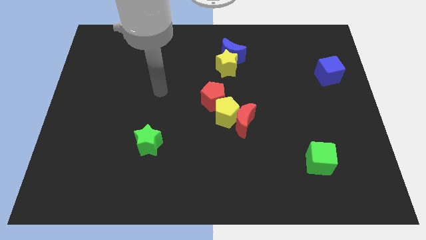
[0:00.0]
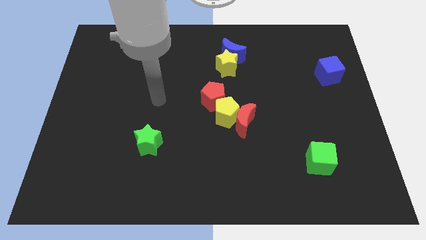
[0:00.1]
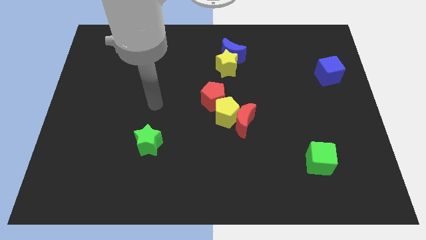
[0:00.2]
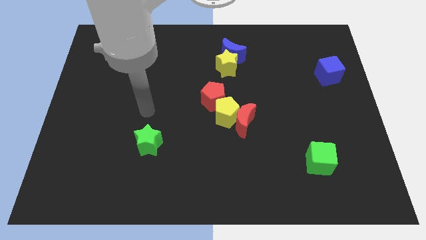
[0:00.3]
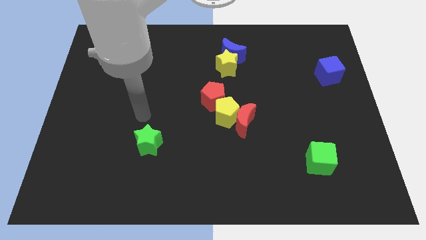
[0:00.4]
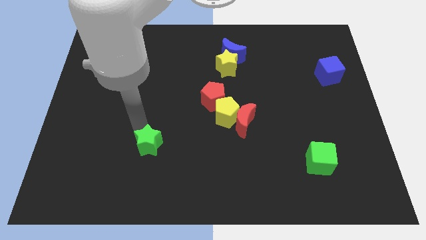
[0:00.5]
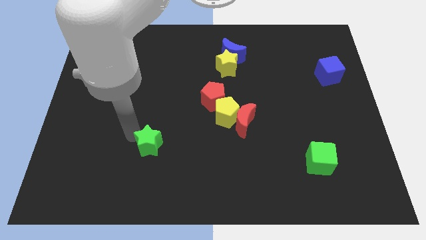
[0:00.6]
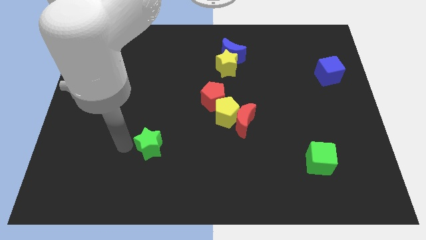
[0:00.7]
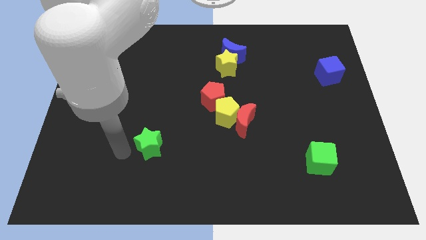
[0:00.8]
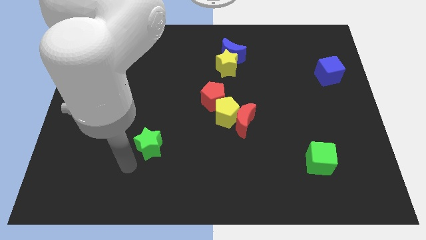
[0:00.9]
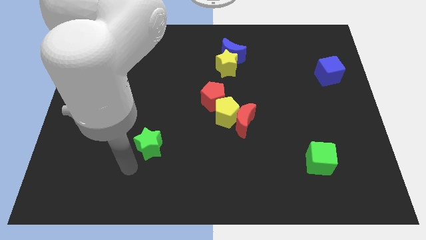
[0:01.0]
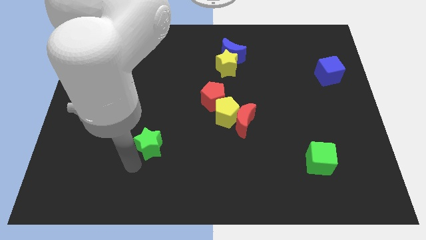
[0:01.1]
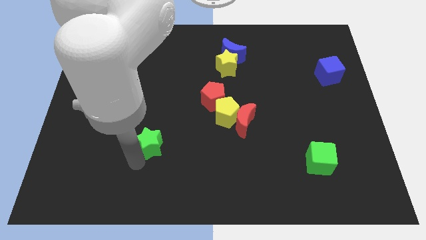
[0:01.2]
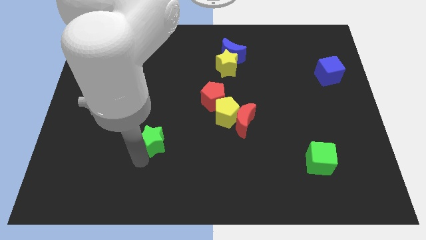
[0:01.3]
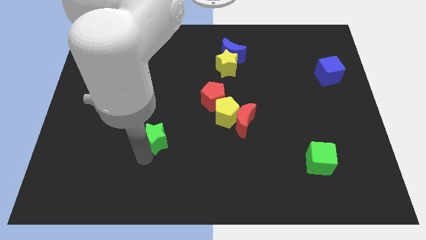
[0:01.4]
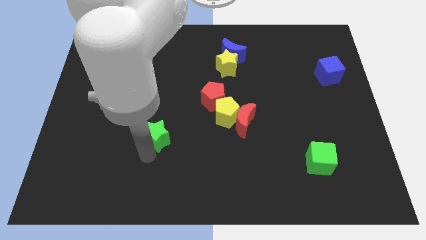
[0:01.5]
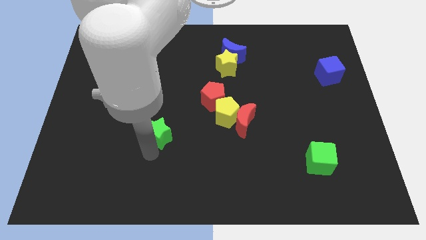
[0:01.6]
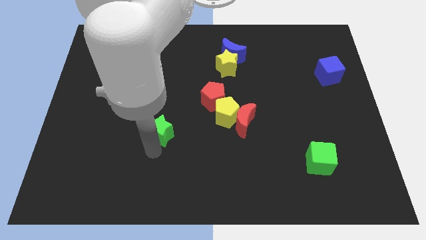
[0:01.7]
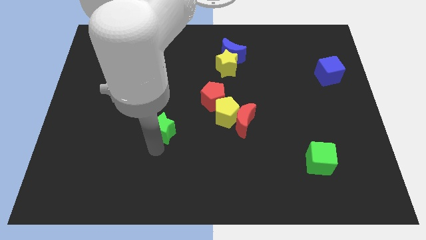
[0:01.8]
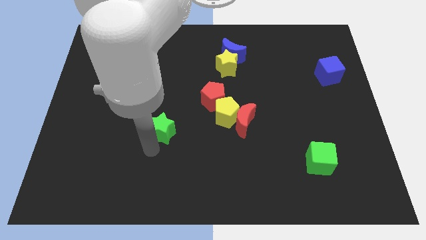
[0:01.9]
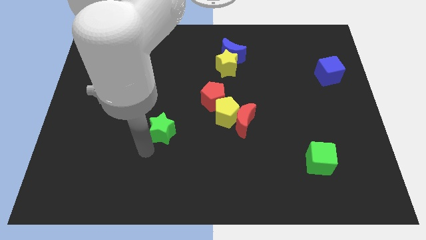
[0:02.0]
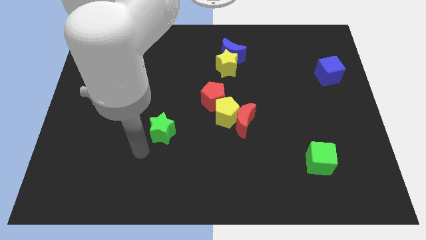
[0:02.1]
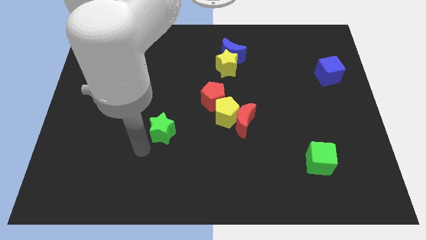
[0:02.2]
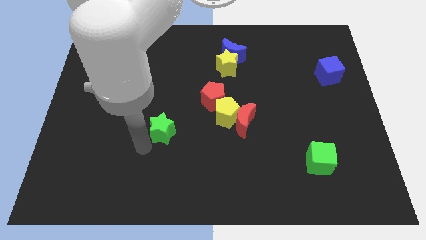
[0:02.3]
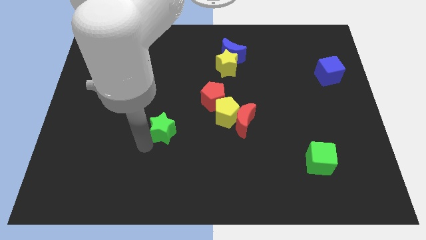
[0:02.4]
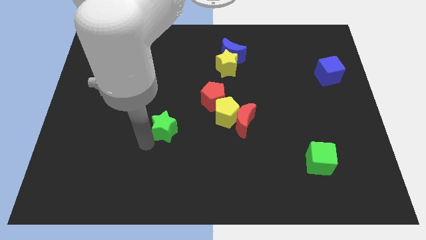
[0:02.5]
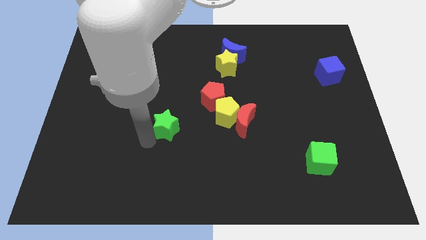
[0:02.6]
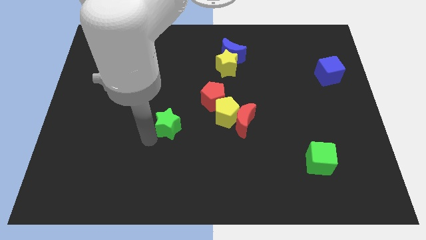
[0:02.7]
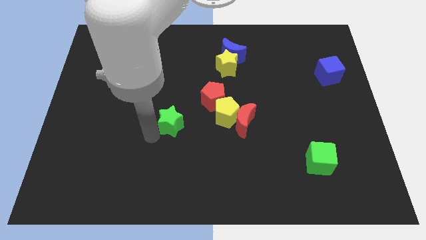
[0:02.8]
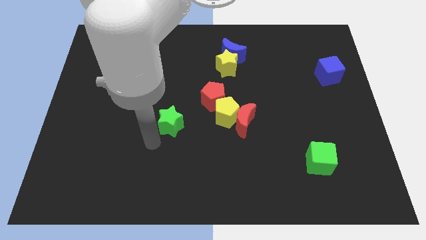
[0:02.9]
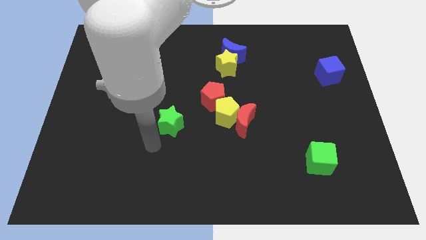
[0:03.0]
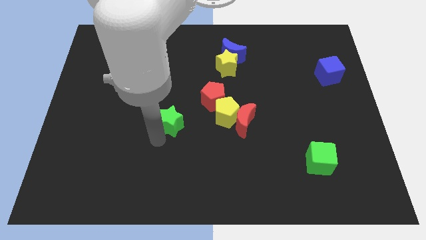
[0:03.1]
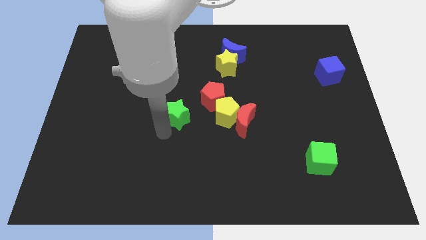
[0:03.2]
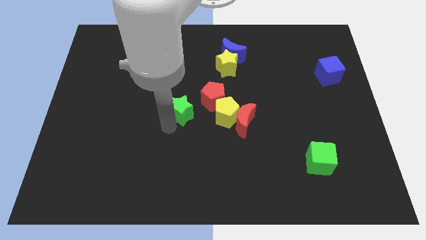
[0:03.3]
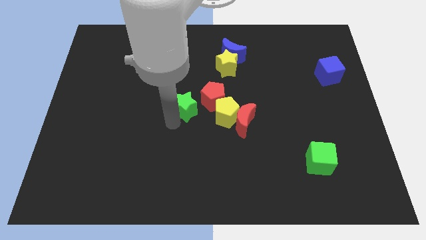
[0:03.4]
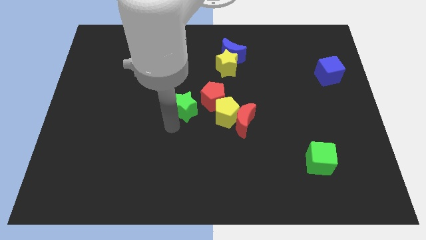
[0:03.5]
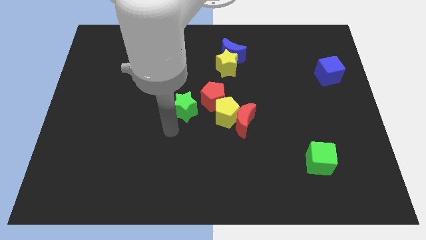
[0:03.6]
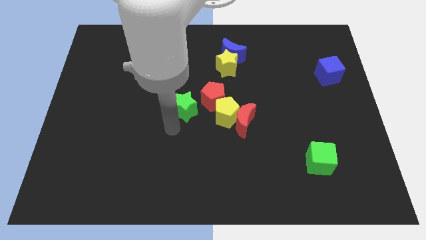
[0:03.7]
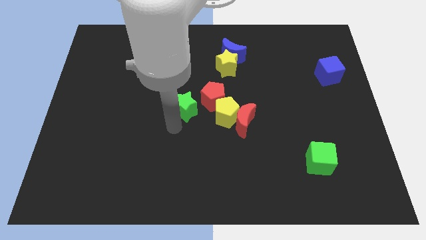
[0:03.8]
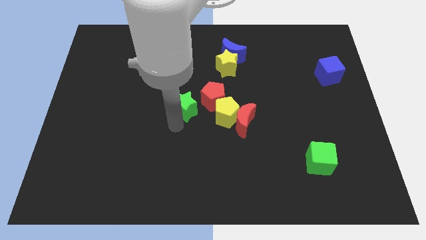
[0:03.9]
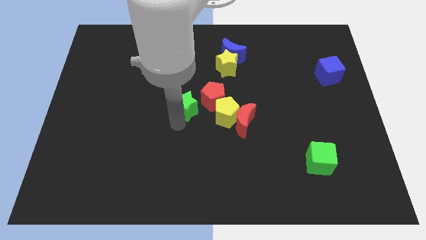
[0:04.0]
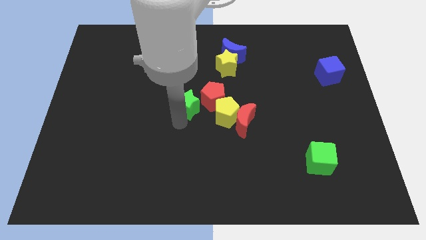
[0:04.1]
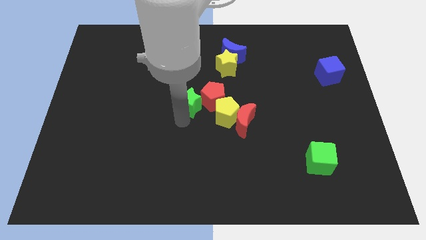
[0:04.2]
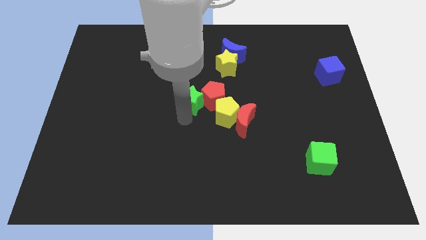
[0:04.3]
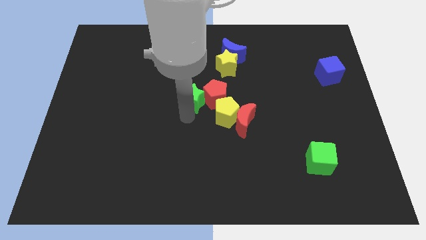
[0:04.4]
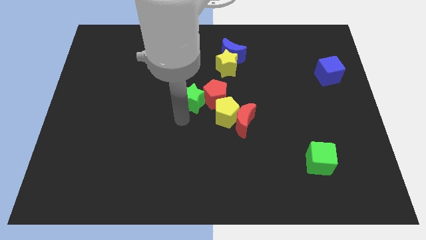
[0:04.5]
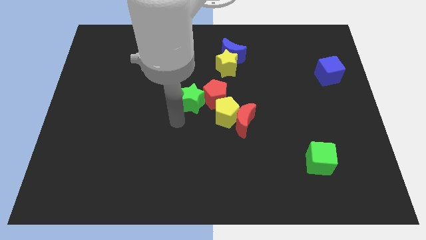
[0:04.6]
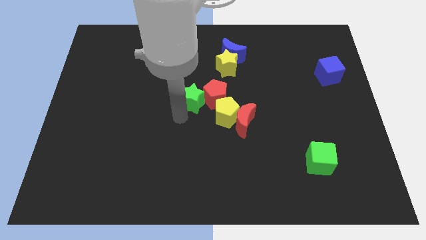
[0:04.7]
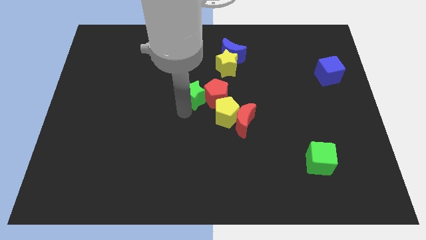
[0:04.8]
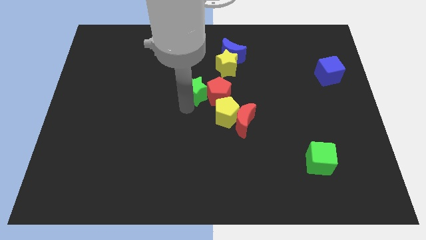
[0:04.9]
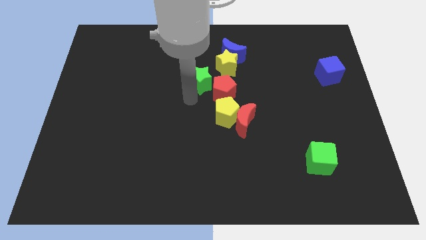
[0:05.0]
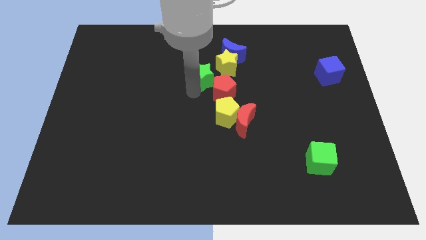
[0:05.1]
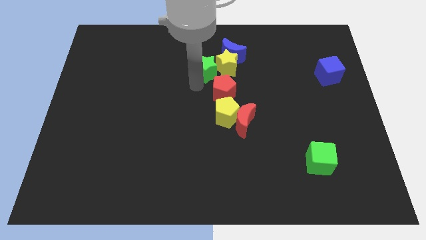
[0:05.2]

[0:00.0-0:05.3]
move the green star to the yellow star

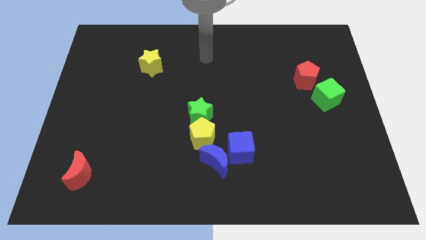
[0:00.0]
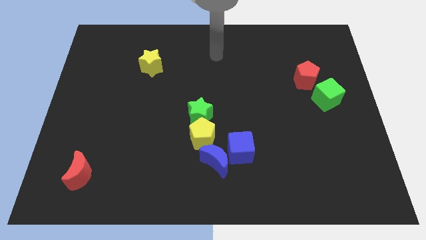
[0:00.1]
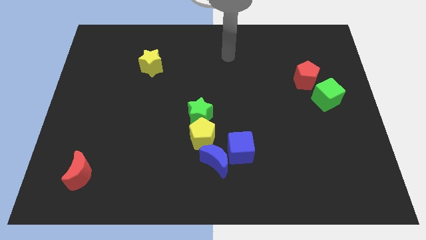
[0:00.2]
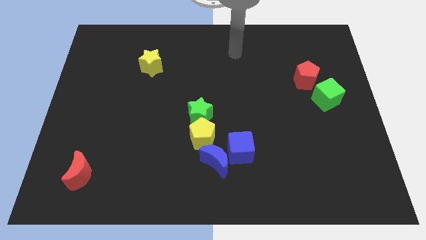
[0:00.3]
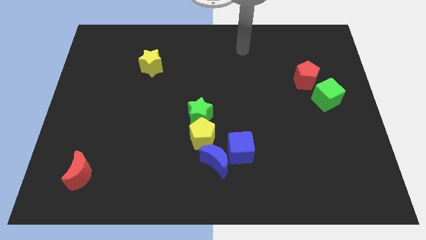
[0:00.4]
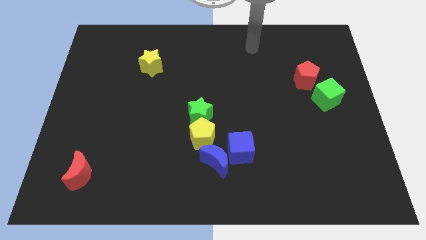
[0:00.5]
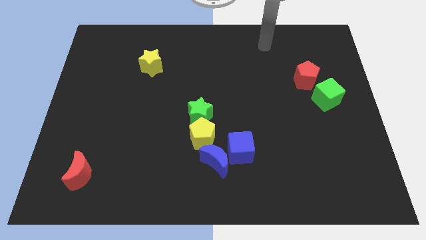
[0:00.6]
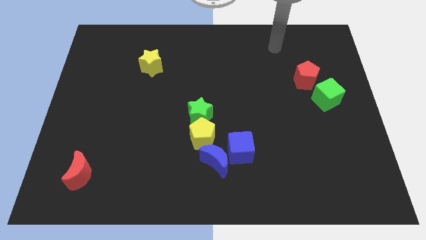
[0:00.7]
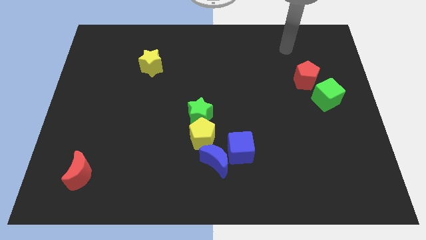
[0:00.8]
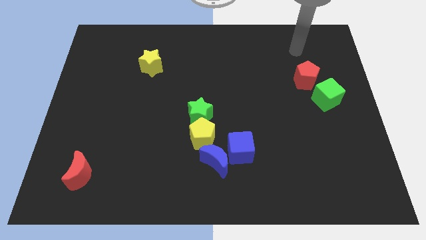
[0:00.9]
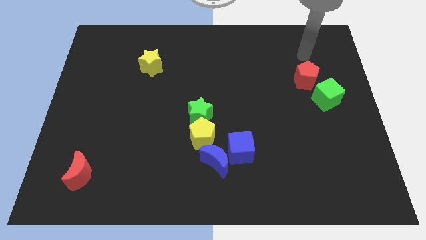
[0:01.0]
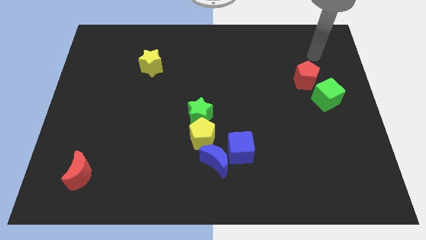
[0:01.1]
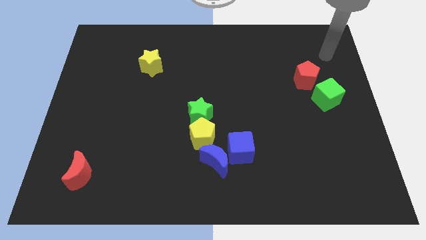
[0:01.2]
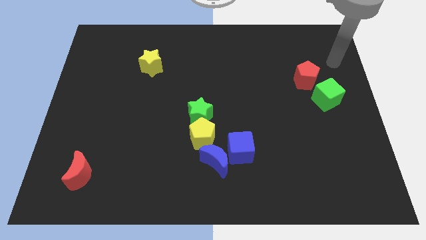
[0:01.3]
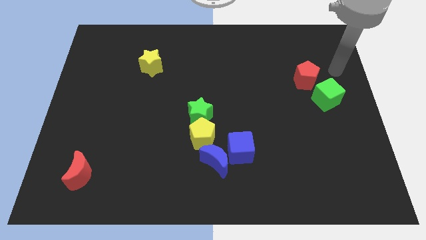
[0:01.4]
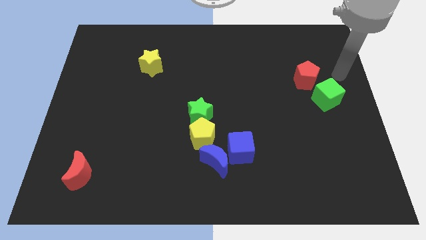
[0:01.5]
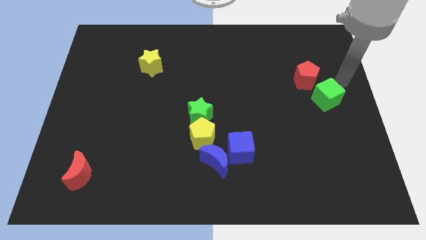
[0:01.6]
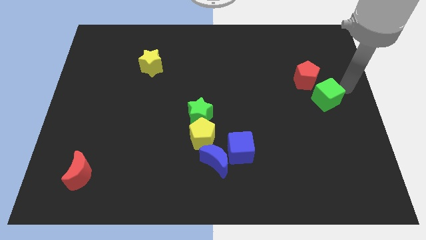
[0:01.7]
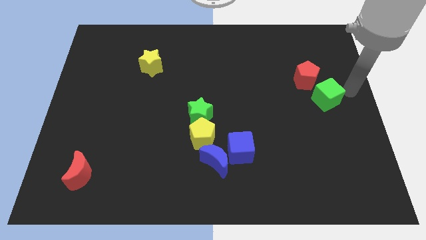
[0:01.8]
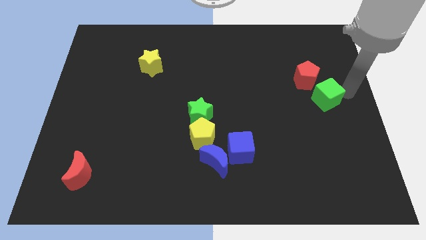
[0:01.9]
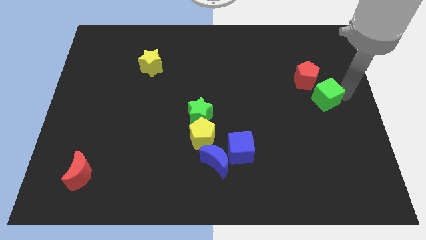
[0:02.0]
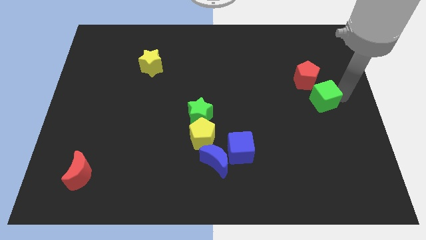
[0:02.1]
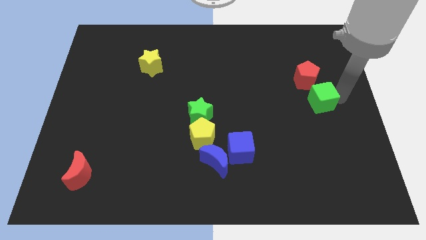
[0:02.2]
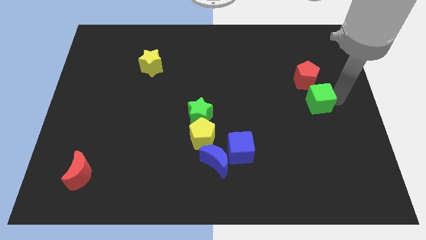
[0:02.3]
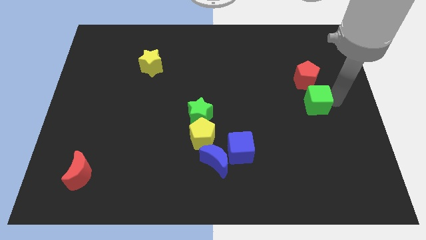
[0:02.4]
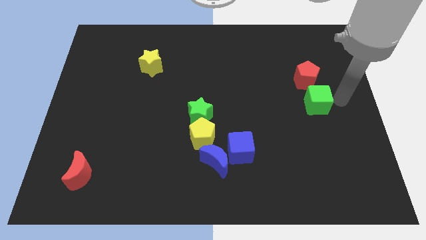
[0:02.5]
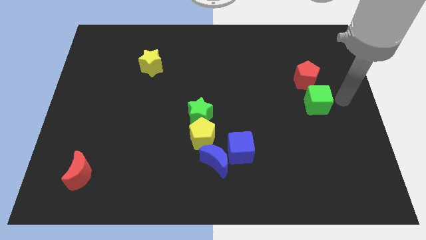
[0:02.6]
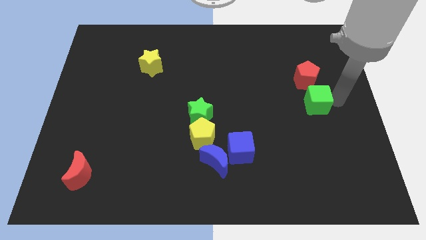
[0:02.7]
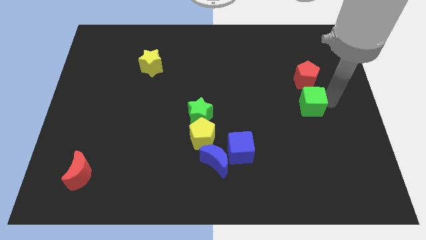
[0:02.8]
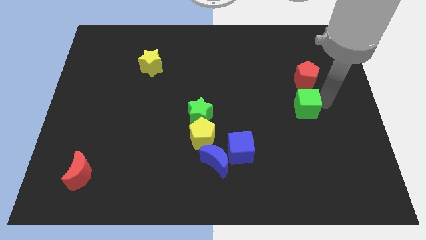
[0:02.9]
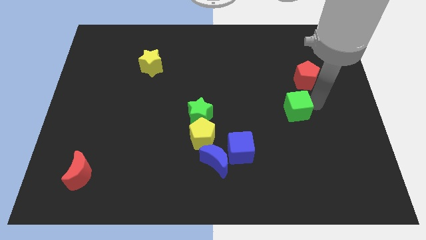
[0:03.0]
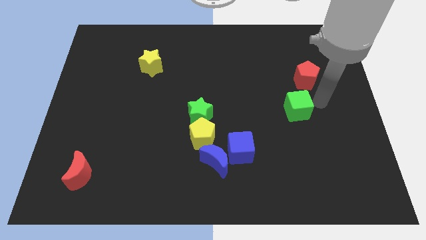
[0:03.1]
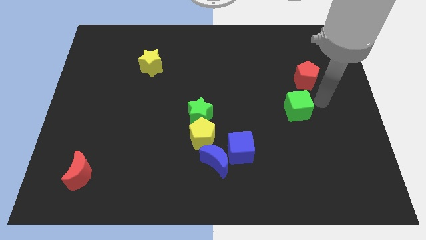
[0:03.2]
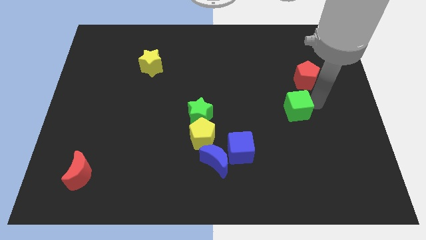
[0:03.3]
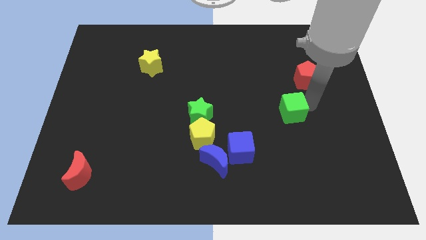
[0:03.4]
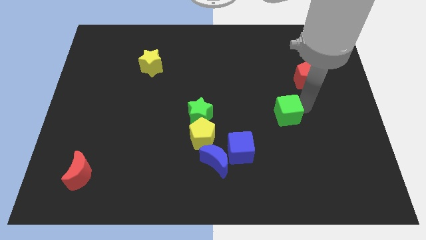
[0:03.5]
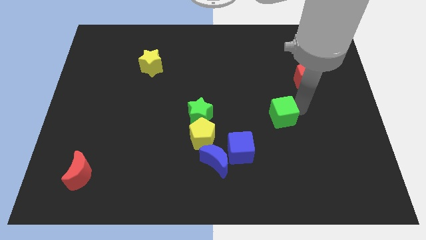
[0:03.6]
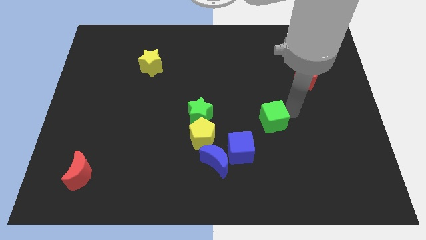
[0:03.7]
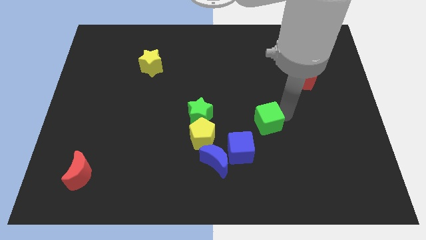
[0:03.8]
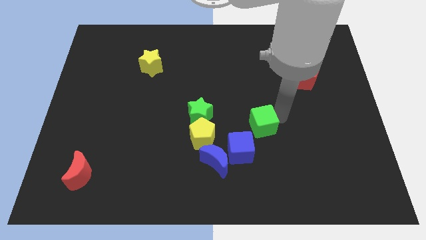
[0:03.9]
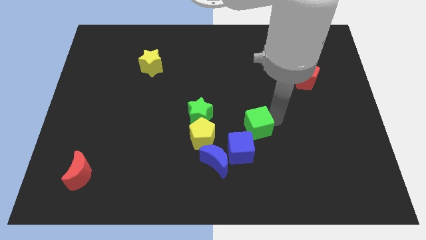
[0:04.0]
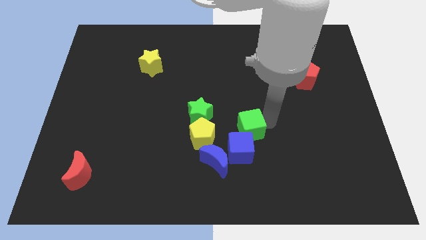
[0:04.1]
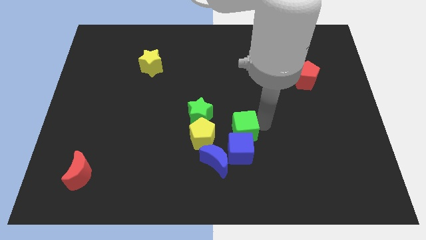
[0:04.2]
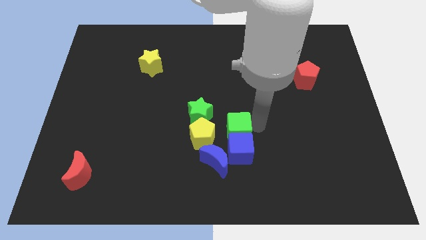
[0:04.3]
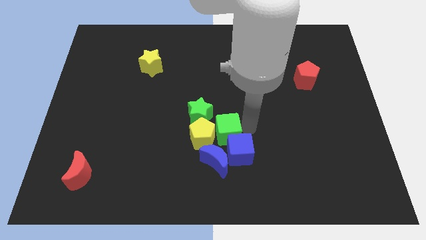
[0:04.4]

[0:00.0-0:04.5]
push the green cube close to the yellow pentagon
